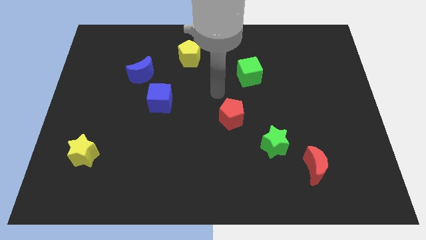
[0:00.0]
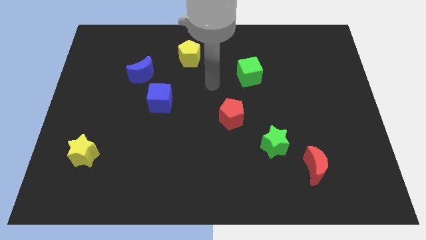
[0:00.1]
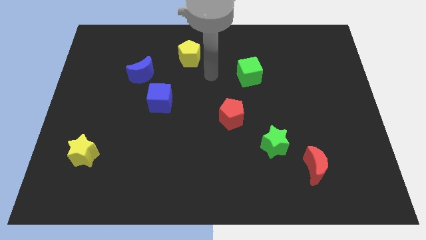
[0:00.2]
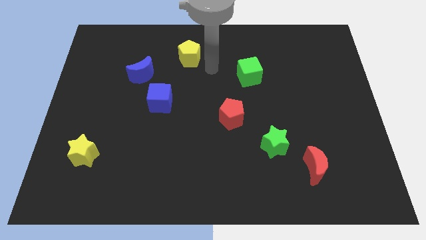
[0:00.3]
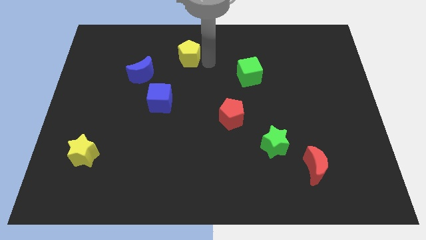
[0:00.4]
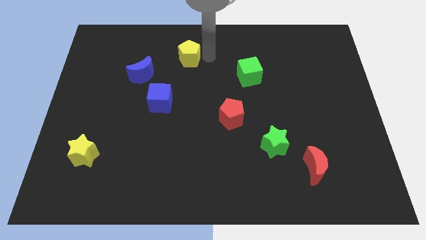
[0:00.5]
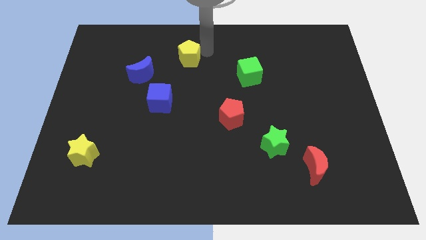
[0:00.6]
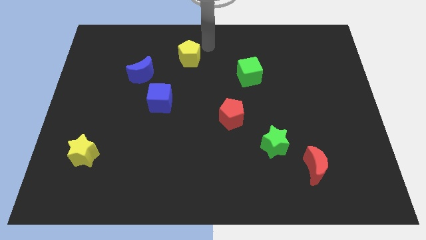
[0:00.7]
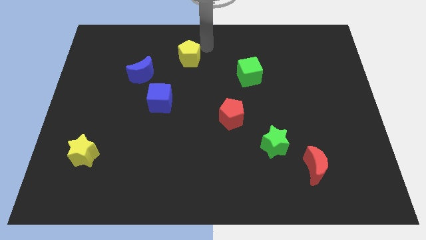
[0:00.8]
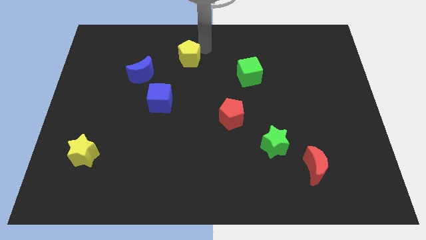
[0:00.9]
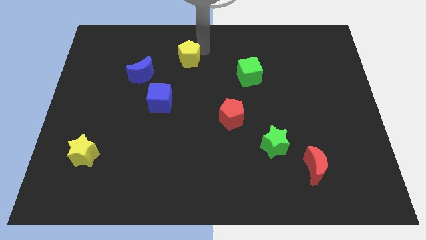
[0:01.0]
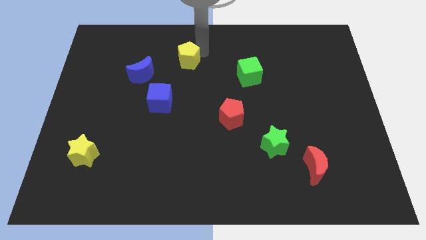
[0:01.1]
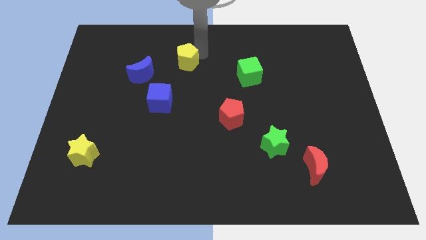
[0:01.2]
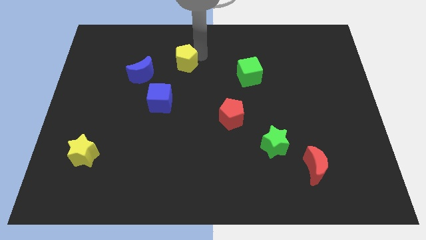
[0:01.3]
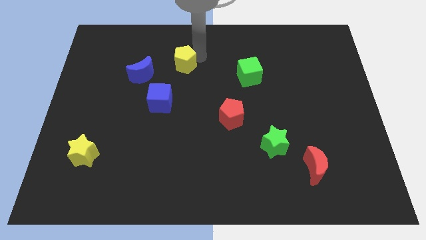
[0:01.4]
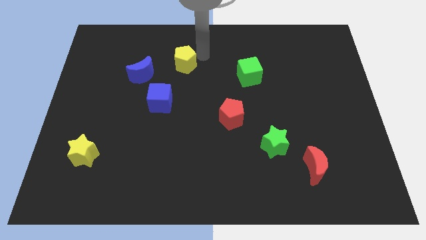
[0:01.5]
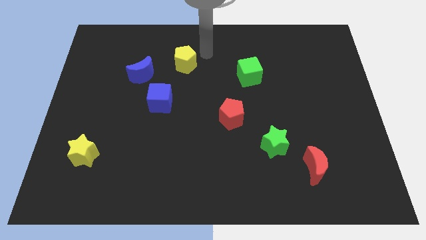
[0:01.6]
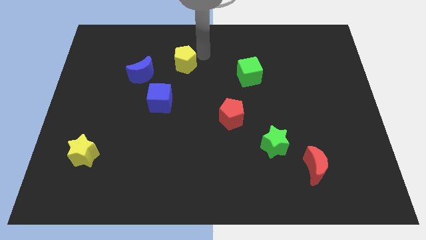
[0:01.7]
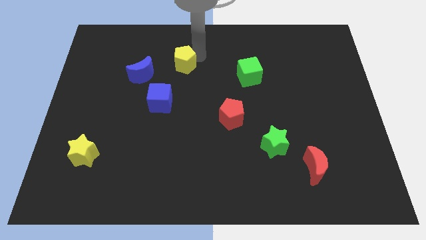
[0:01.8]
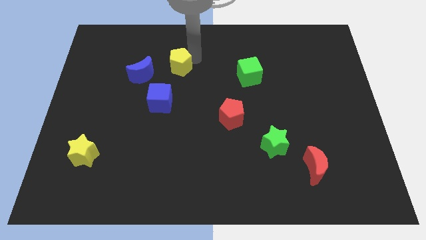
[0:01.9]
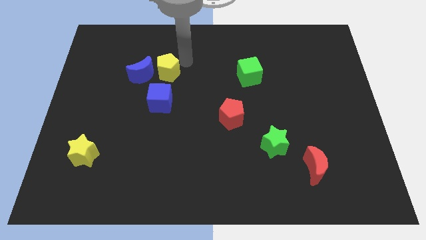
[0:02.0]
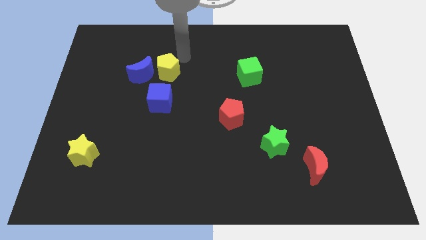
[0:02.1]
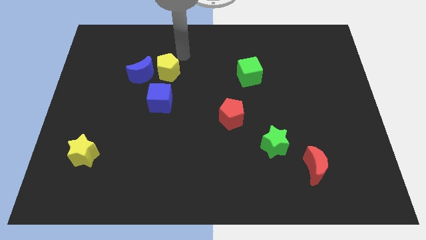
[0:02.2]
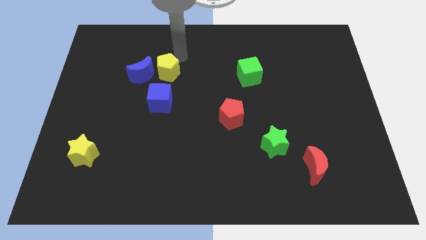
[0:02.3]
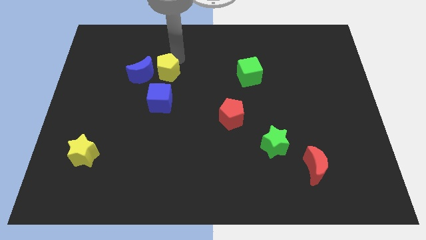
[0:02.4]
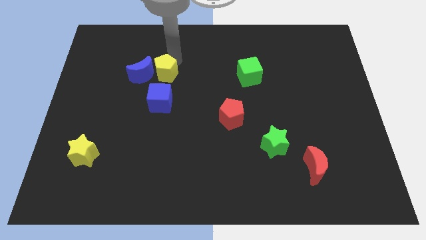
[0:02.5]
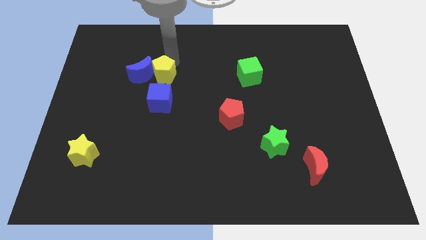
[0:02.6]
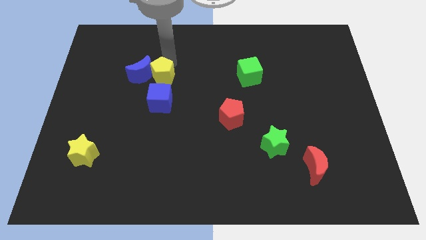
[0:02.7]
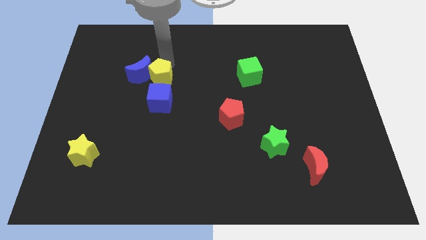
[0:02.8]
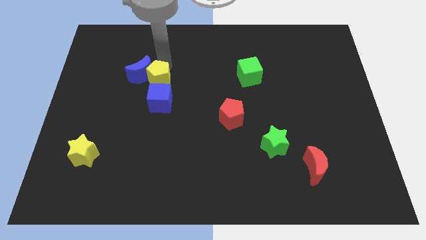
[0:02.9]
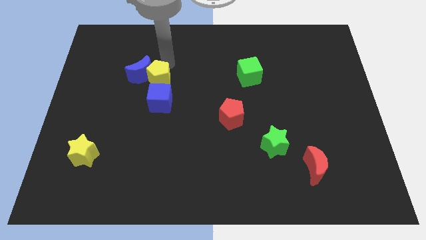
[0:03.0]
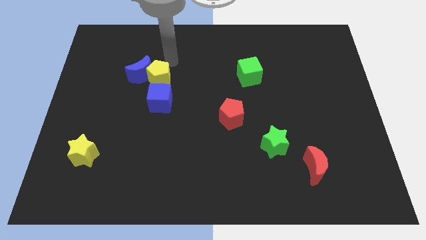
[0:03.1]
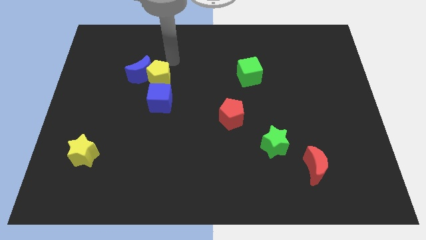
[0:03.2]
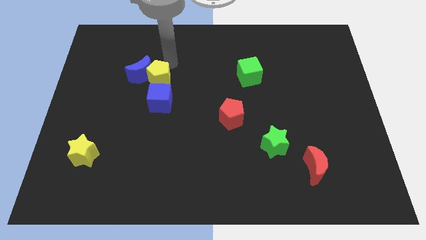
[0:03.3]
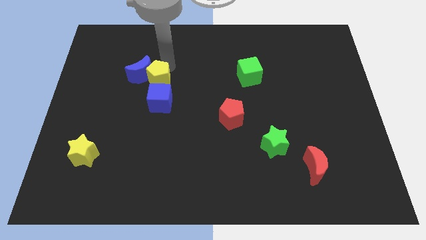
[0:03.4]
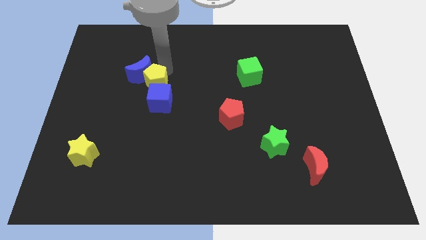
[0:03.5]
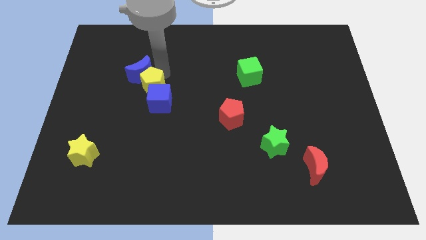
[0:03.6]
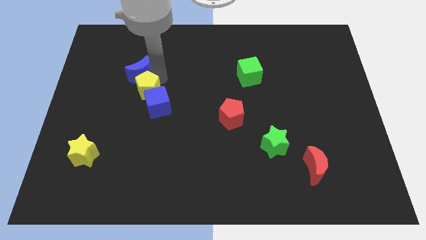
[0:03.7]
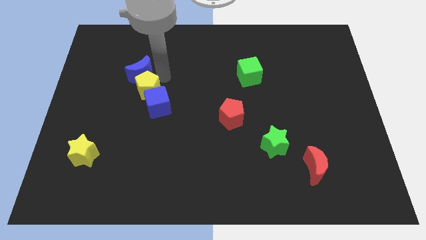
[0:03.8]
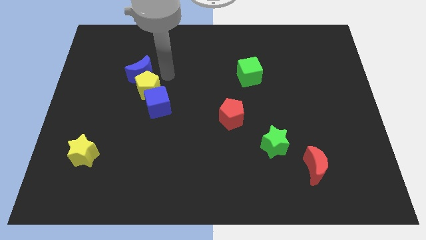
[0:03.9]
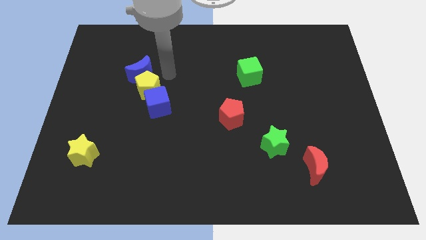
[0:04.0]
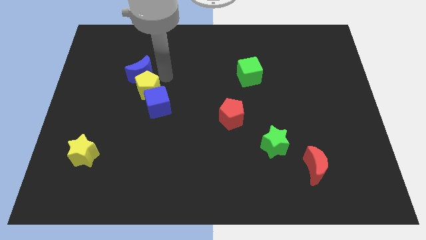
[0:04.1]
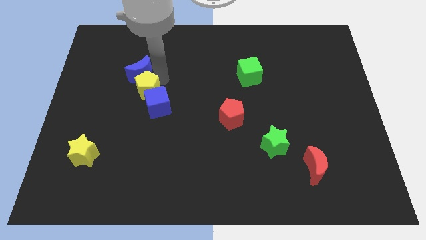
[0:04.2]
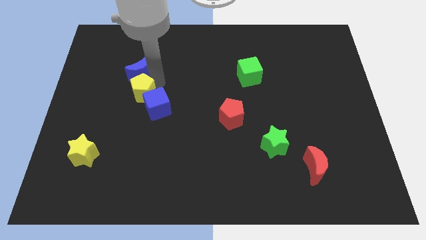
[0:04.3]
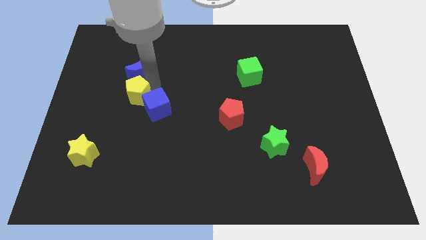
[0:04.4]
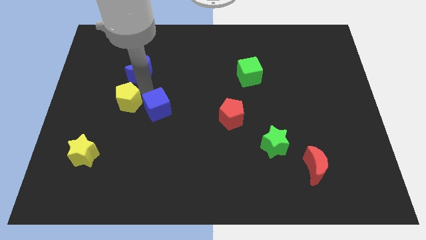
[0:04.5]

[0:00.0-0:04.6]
push the yellow pentagon down and to the left

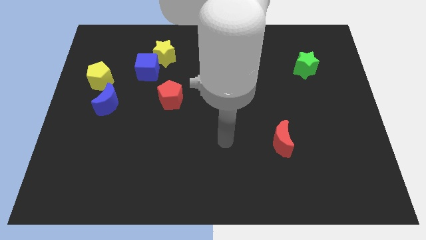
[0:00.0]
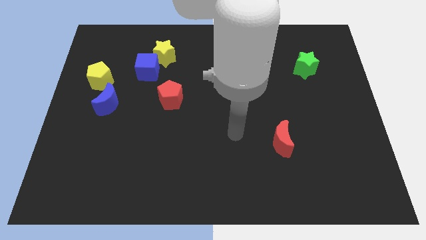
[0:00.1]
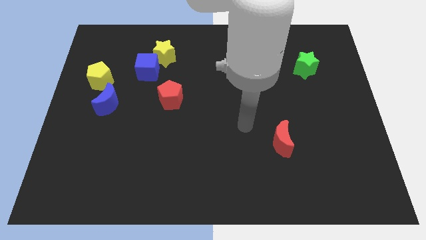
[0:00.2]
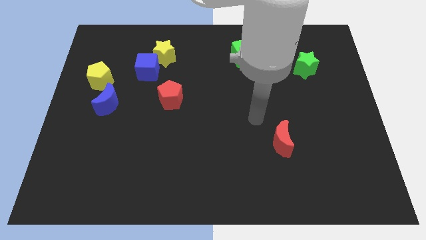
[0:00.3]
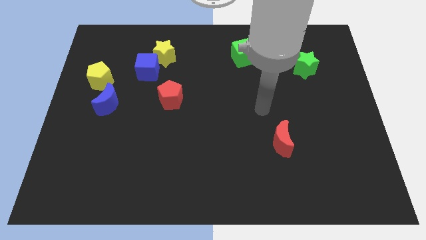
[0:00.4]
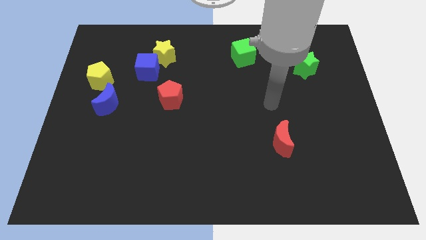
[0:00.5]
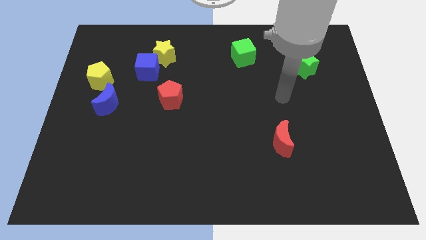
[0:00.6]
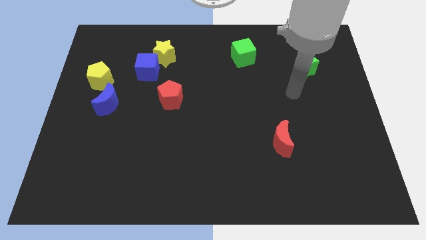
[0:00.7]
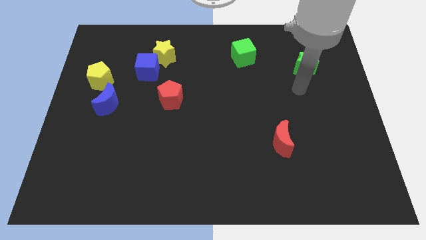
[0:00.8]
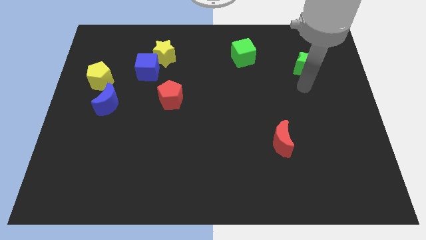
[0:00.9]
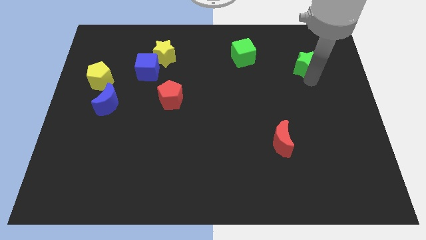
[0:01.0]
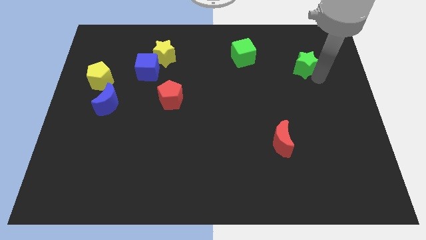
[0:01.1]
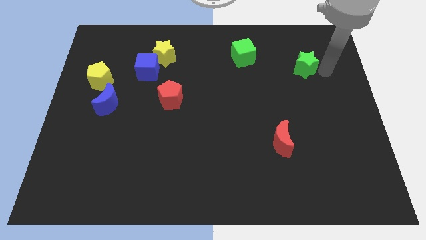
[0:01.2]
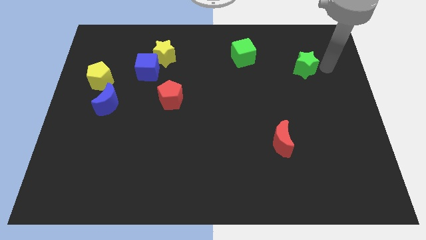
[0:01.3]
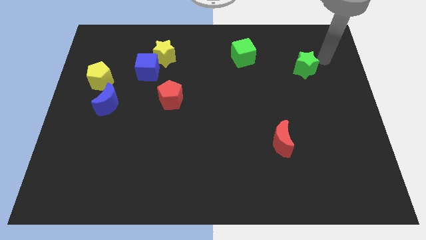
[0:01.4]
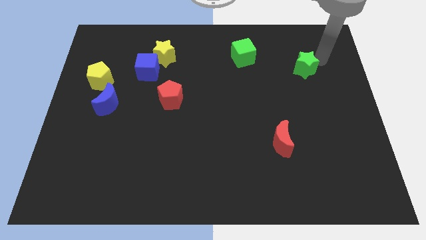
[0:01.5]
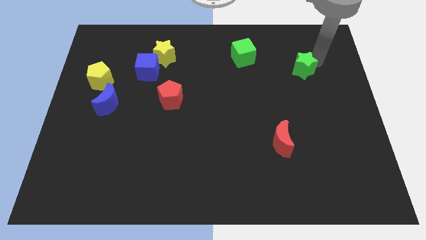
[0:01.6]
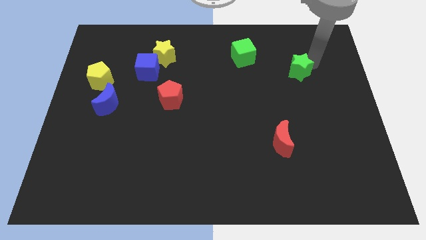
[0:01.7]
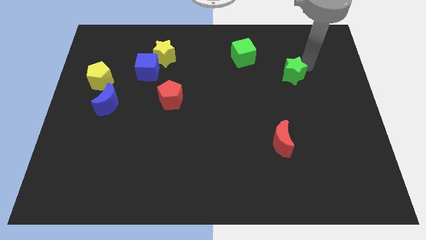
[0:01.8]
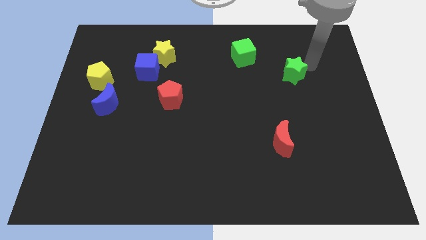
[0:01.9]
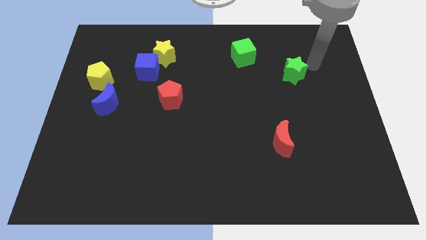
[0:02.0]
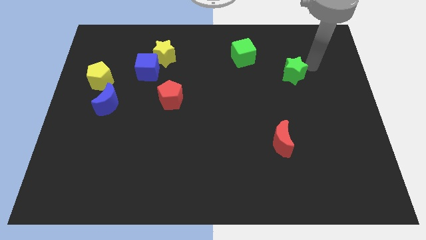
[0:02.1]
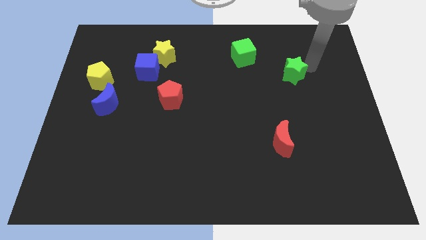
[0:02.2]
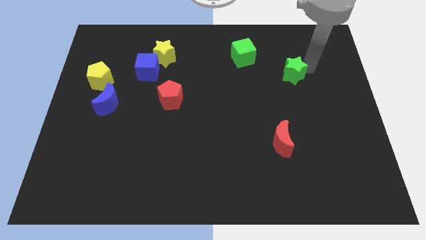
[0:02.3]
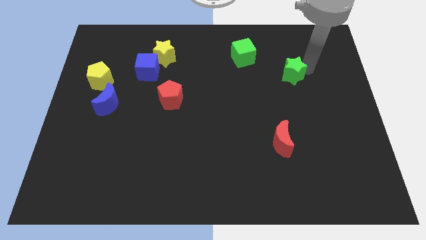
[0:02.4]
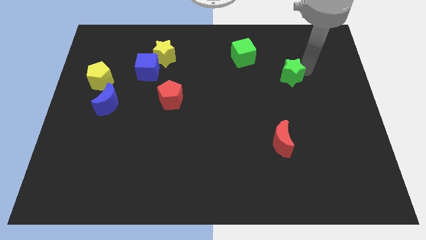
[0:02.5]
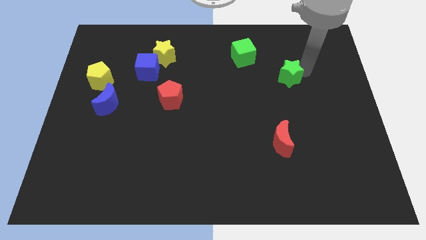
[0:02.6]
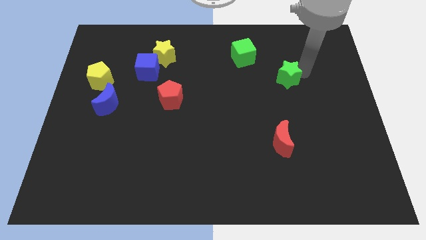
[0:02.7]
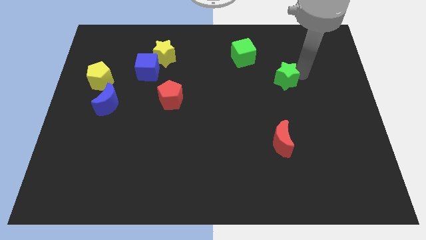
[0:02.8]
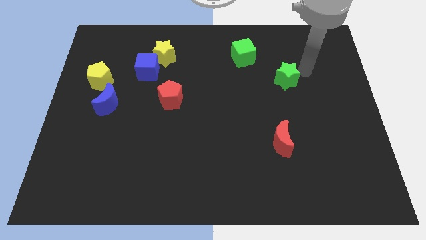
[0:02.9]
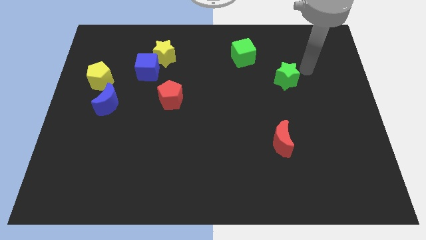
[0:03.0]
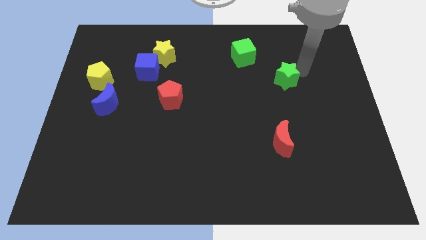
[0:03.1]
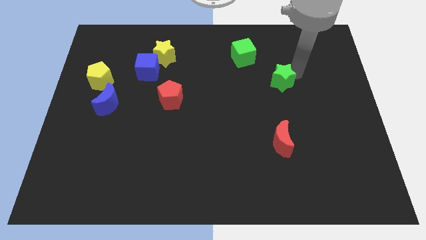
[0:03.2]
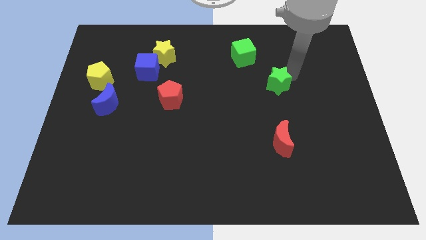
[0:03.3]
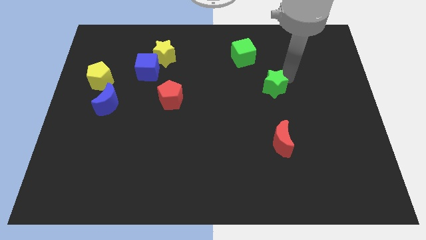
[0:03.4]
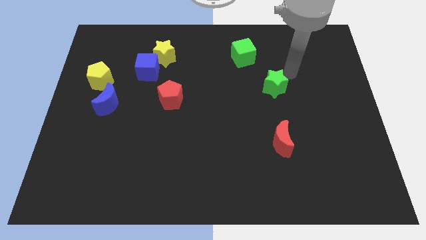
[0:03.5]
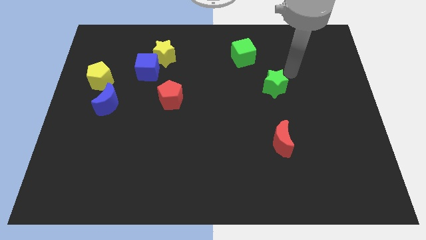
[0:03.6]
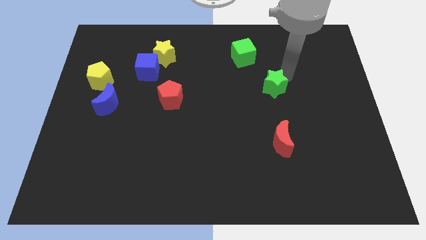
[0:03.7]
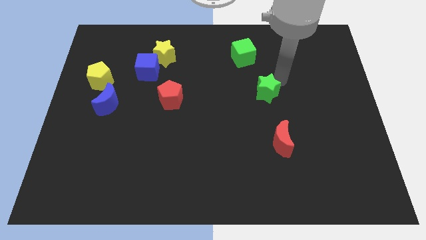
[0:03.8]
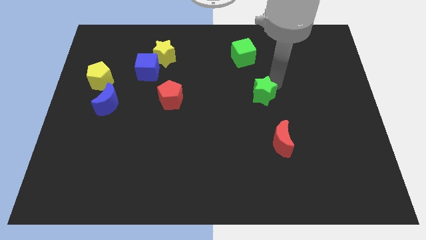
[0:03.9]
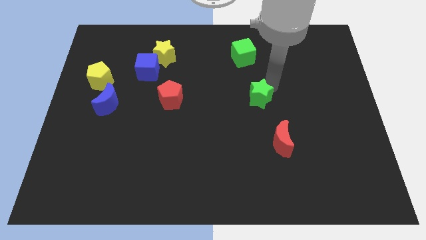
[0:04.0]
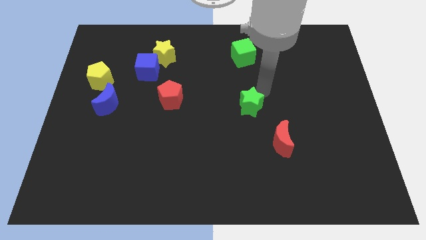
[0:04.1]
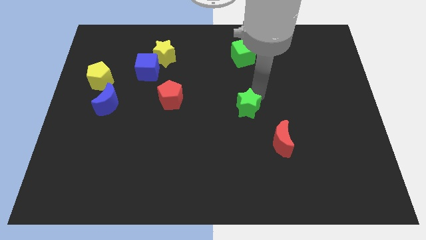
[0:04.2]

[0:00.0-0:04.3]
move the green star down and then to the left
